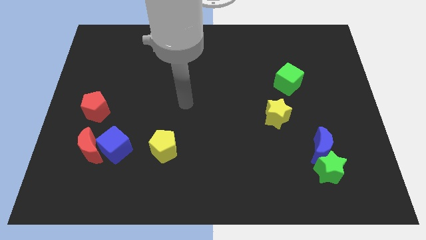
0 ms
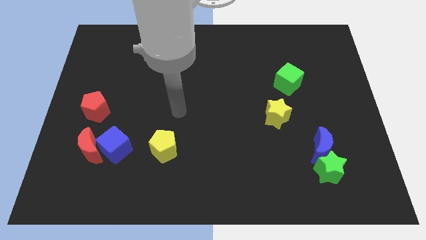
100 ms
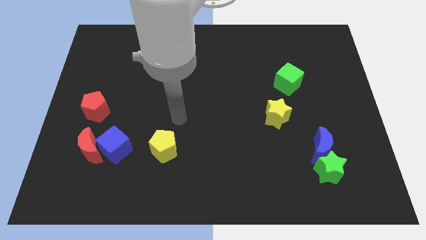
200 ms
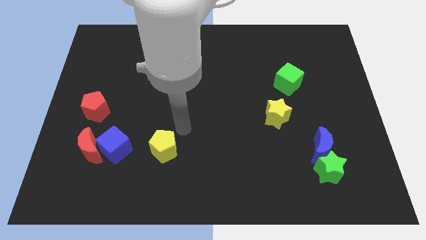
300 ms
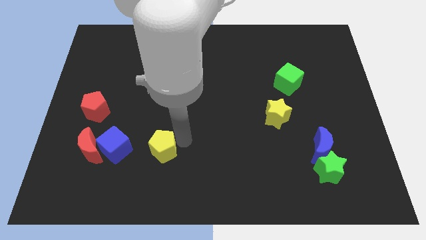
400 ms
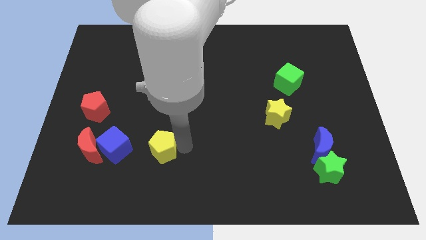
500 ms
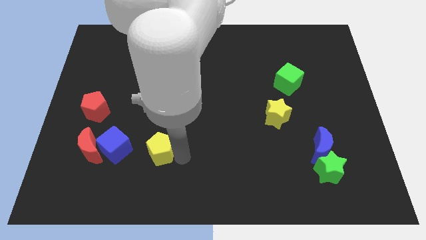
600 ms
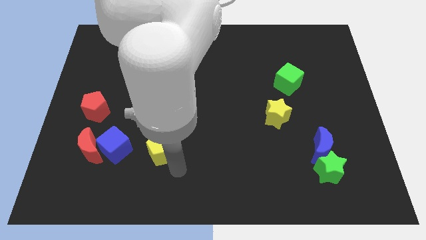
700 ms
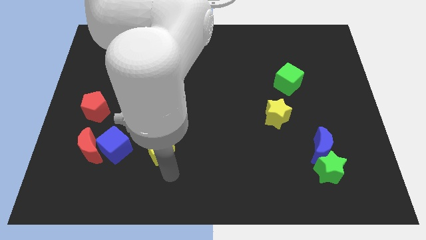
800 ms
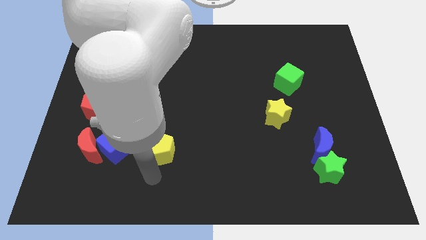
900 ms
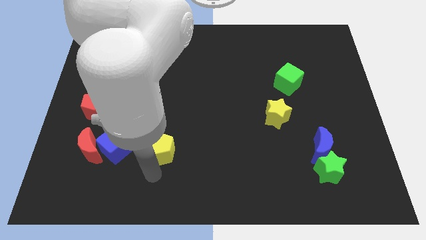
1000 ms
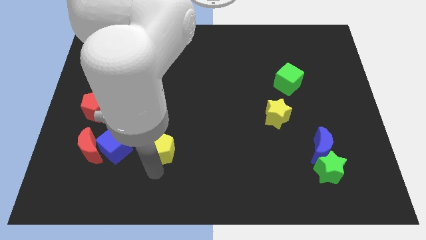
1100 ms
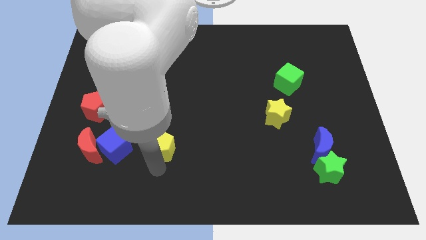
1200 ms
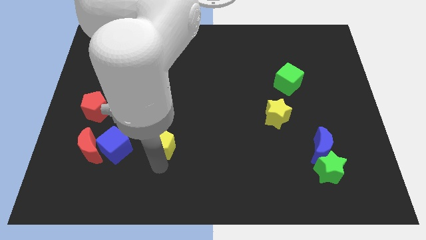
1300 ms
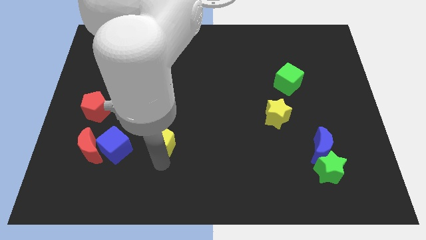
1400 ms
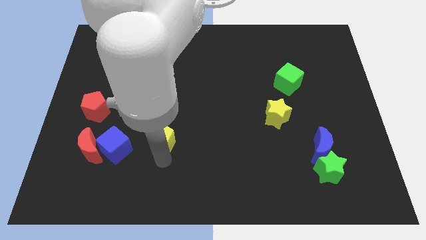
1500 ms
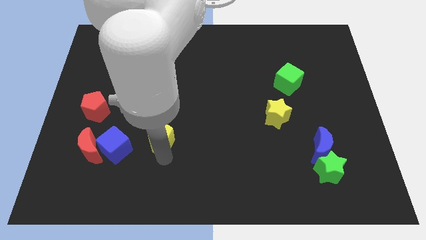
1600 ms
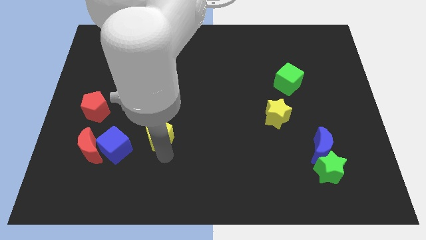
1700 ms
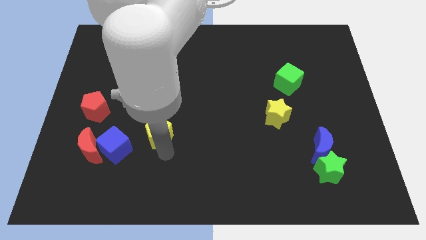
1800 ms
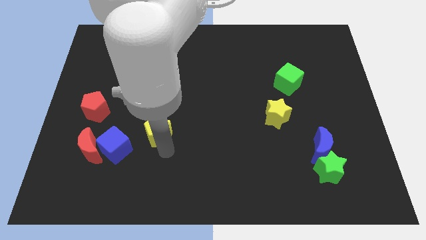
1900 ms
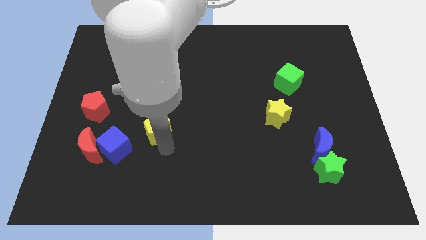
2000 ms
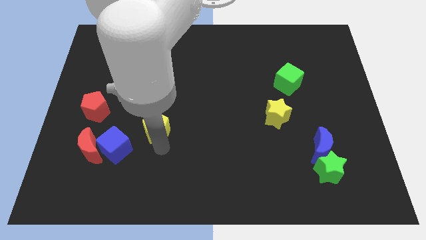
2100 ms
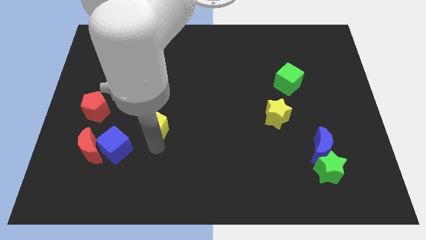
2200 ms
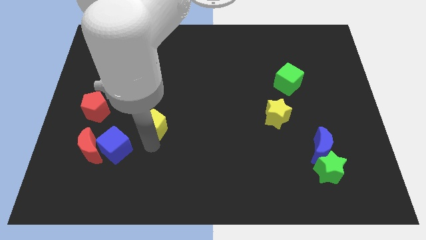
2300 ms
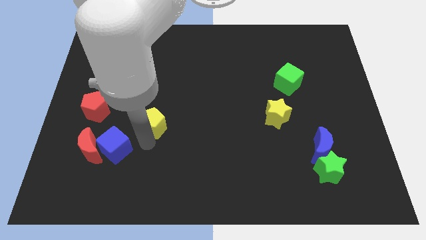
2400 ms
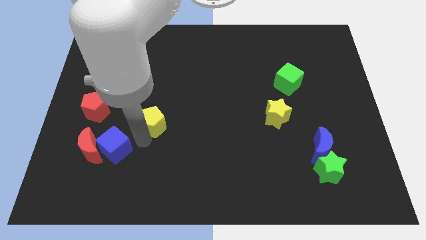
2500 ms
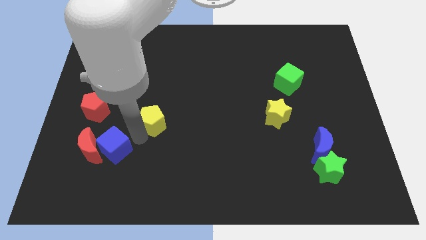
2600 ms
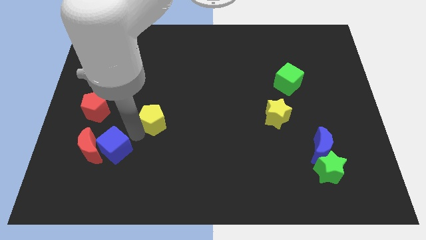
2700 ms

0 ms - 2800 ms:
move the yellow pentagon upwards a little bit

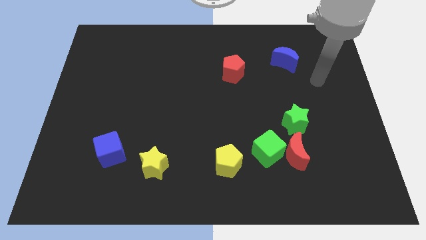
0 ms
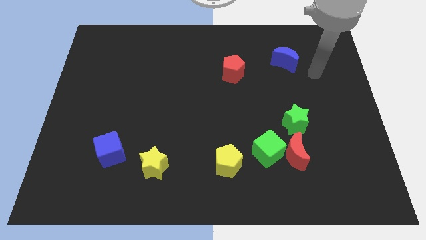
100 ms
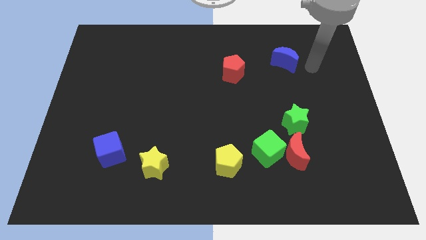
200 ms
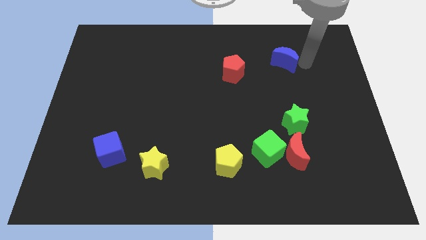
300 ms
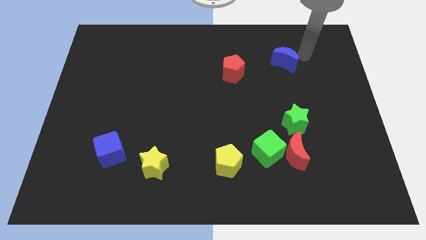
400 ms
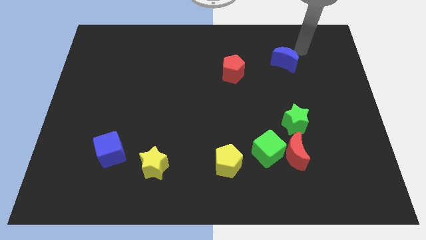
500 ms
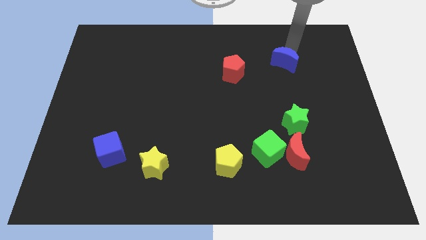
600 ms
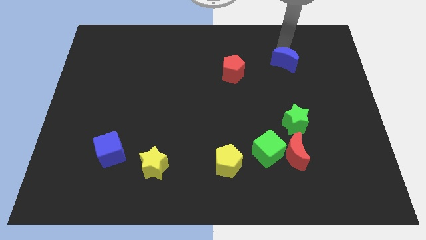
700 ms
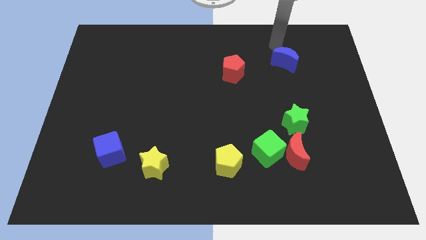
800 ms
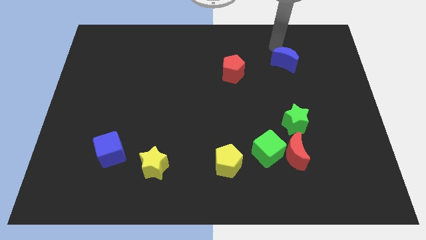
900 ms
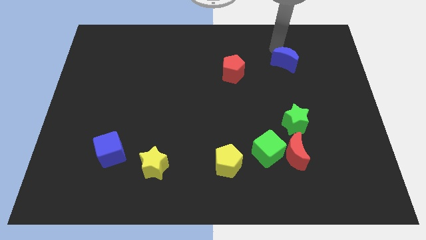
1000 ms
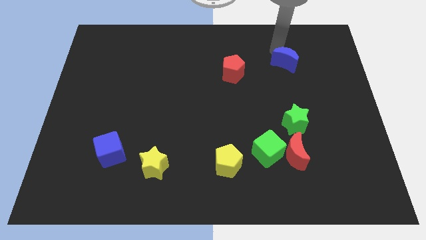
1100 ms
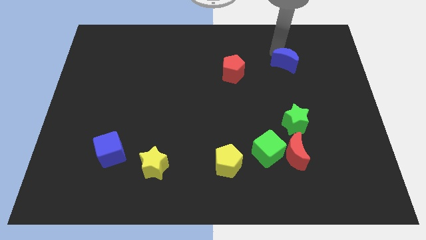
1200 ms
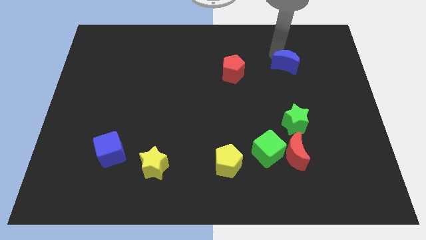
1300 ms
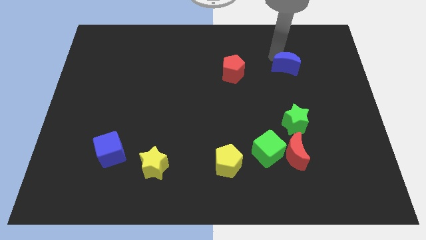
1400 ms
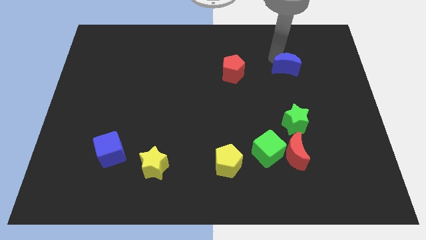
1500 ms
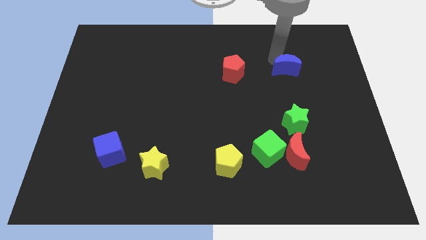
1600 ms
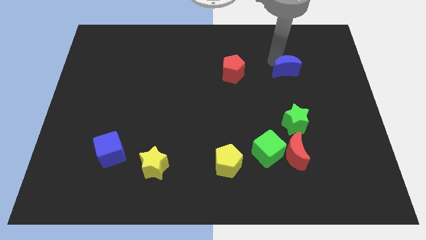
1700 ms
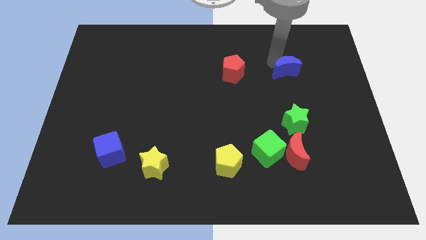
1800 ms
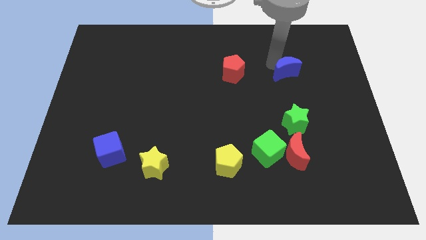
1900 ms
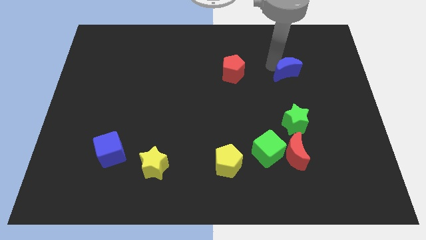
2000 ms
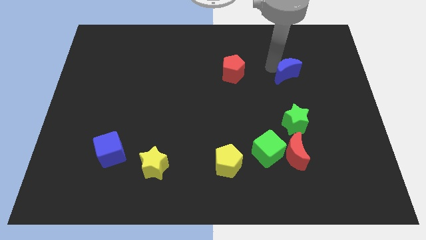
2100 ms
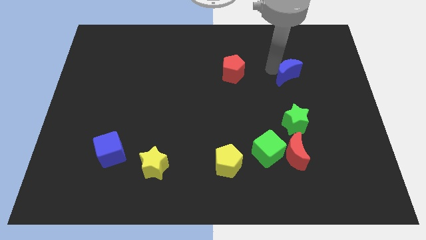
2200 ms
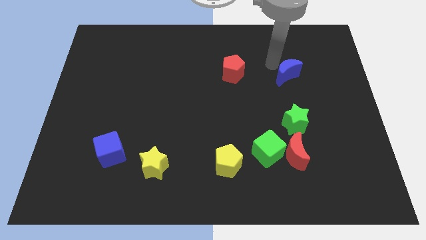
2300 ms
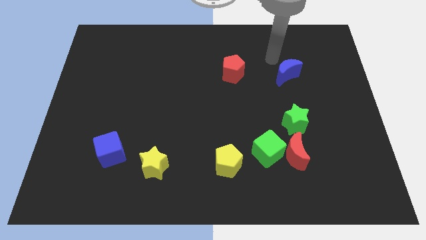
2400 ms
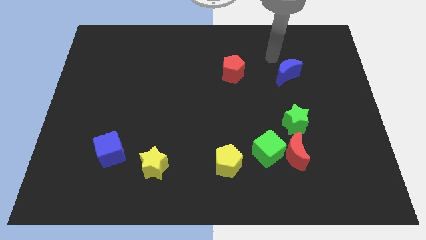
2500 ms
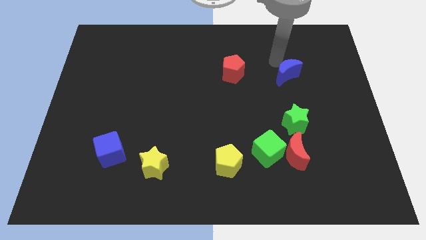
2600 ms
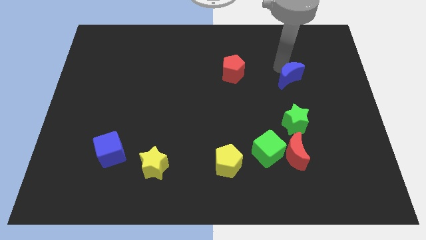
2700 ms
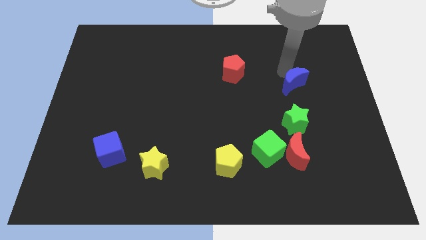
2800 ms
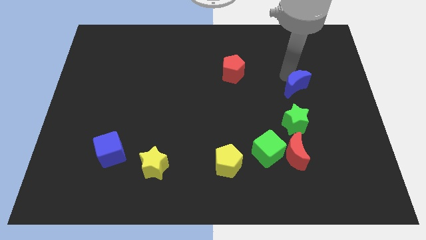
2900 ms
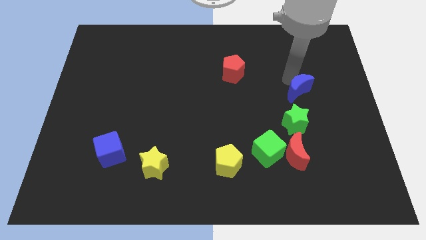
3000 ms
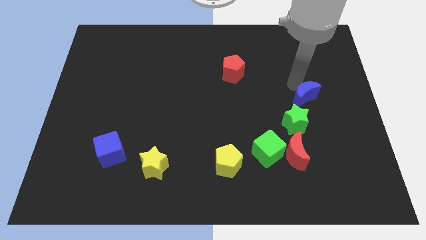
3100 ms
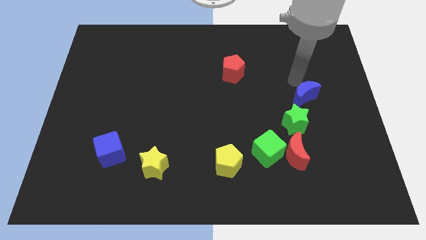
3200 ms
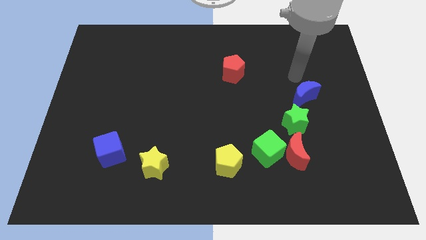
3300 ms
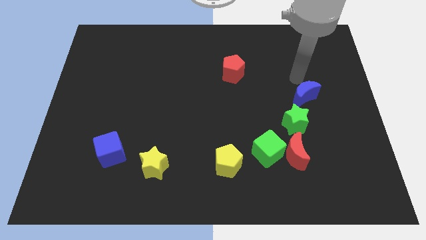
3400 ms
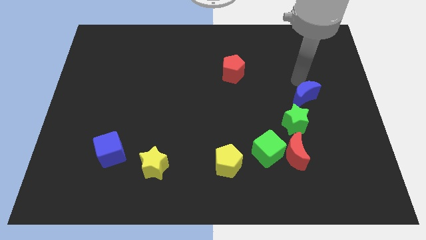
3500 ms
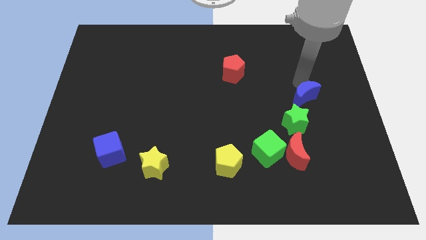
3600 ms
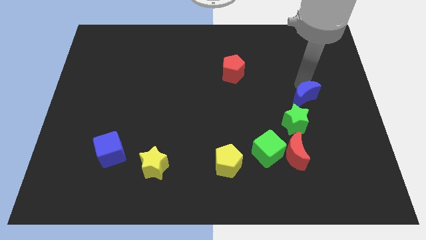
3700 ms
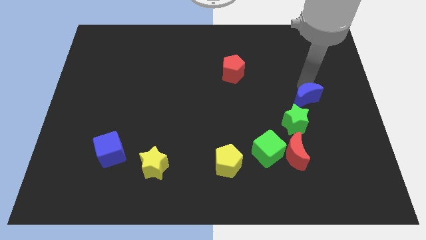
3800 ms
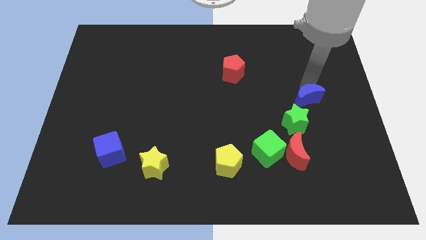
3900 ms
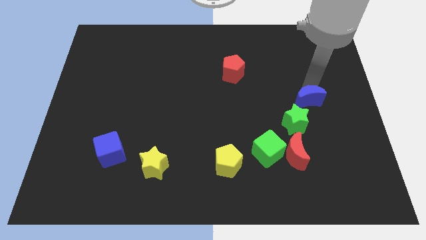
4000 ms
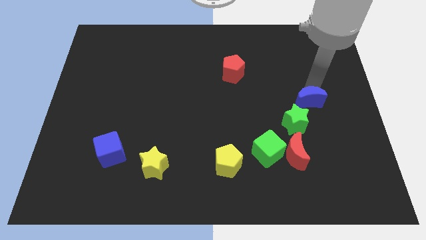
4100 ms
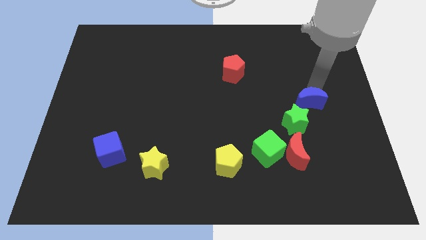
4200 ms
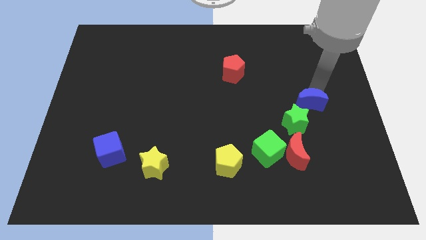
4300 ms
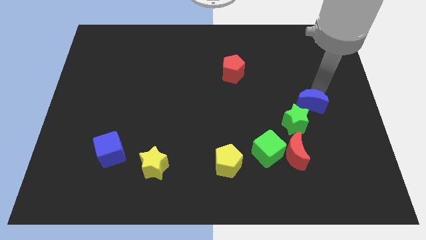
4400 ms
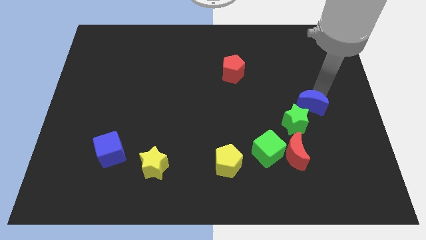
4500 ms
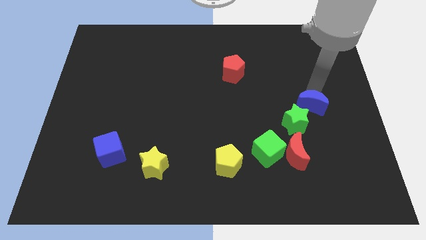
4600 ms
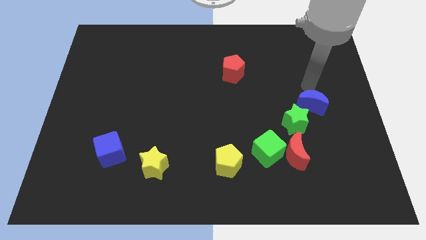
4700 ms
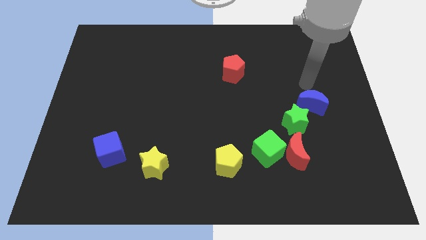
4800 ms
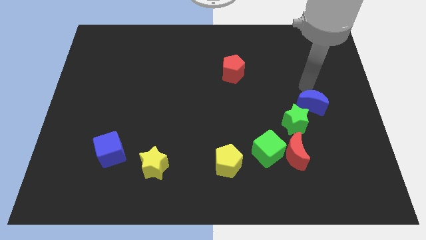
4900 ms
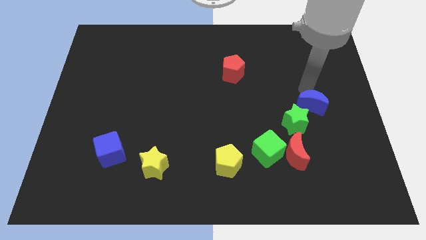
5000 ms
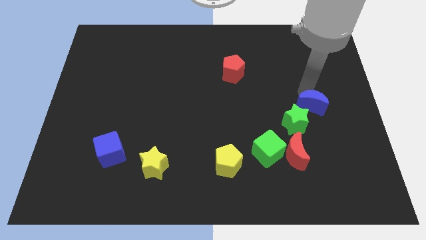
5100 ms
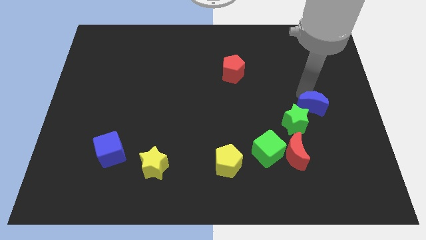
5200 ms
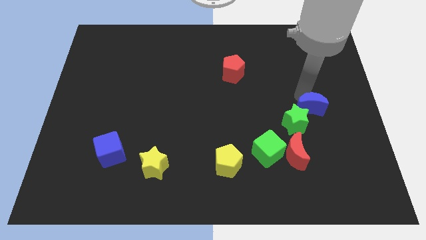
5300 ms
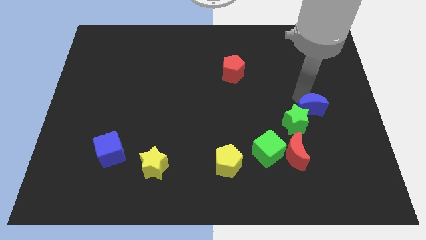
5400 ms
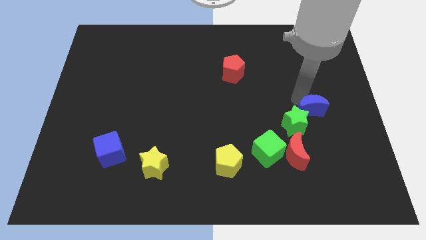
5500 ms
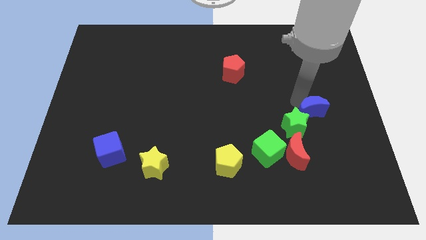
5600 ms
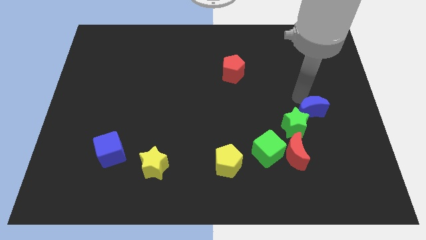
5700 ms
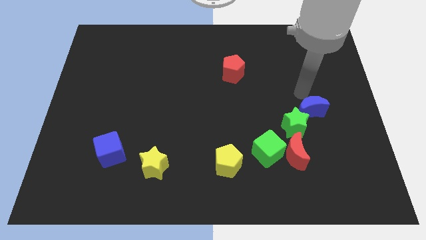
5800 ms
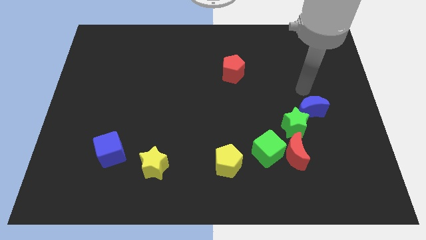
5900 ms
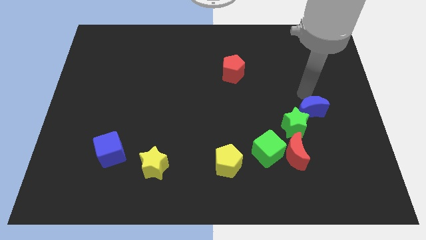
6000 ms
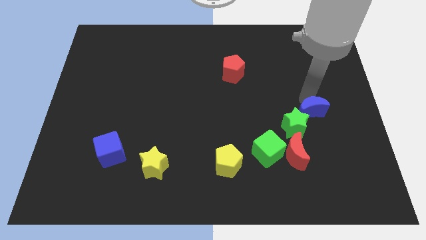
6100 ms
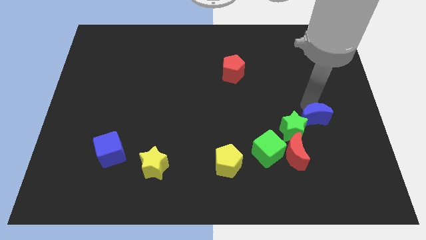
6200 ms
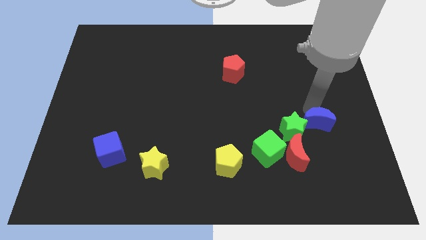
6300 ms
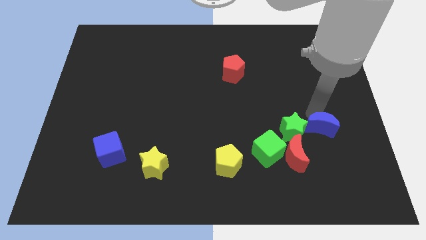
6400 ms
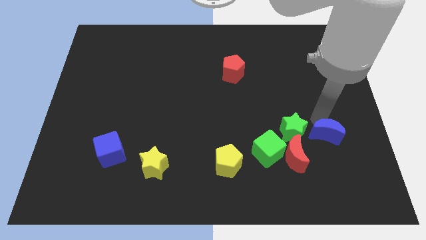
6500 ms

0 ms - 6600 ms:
slide the blue moon down
